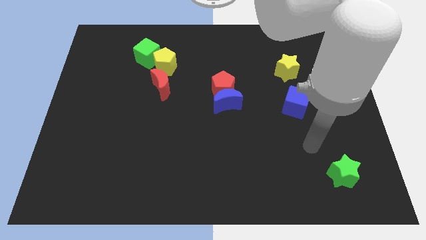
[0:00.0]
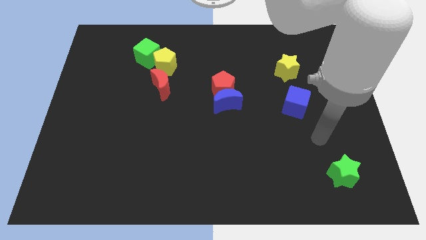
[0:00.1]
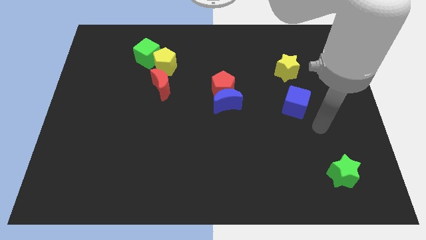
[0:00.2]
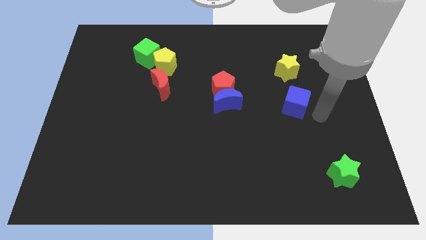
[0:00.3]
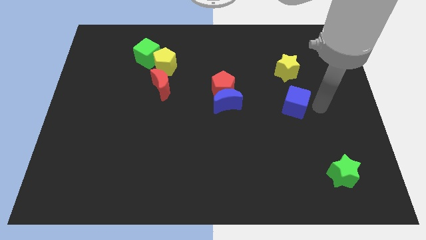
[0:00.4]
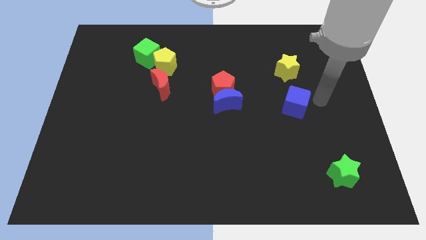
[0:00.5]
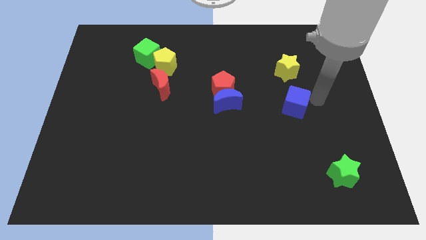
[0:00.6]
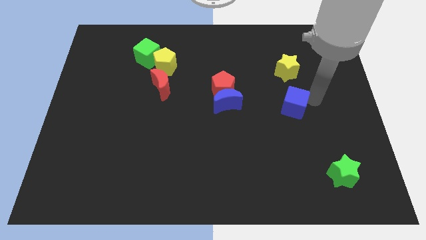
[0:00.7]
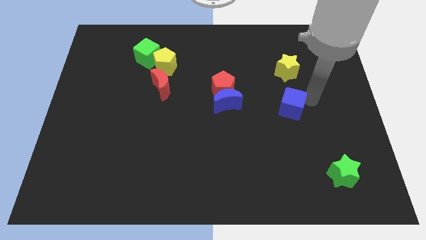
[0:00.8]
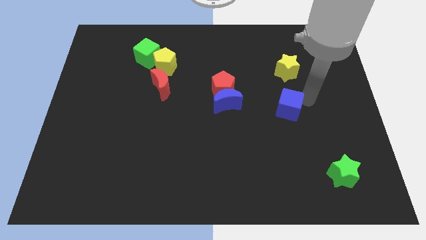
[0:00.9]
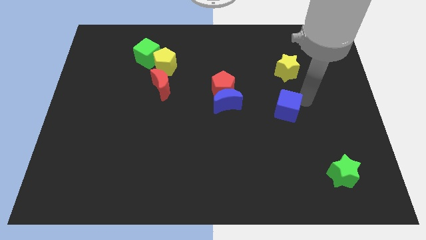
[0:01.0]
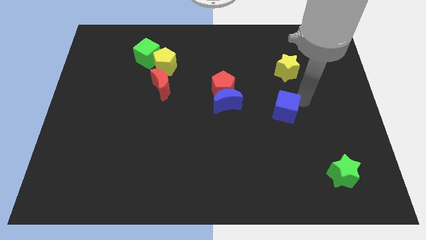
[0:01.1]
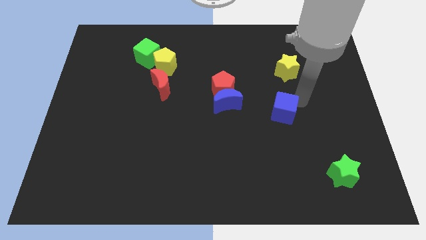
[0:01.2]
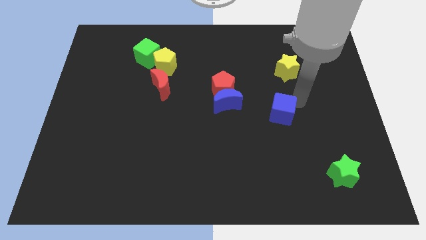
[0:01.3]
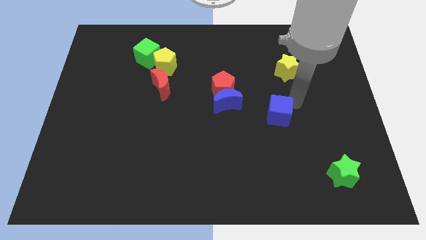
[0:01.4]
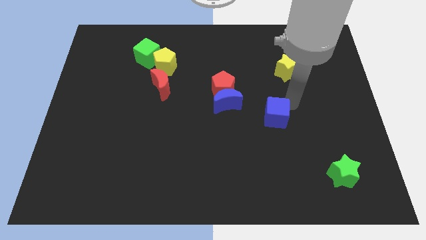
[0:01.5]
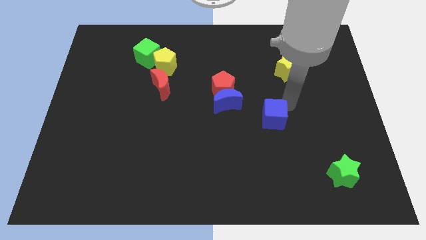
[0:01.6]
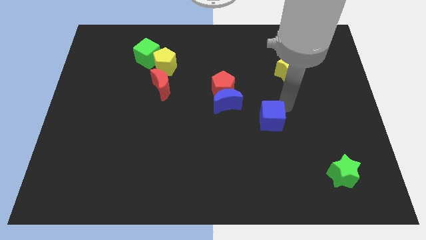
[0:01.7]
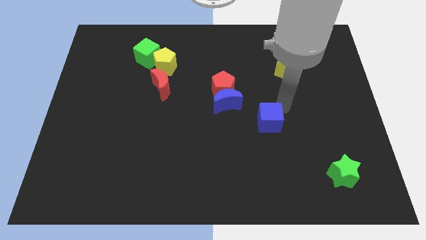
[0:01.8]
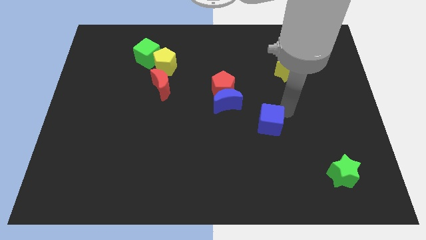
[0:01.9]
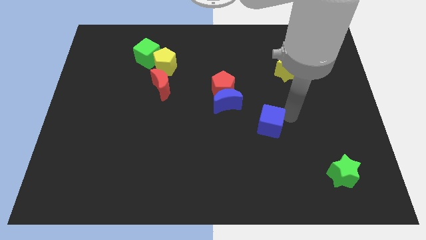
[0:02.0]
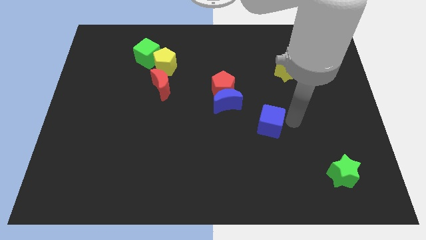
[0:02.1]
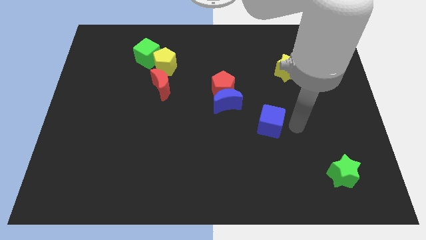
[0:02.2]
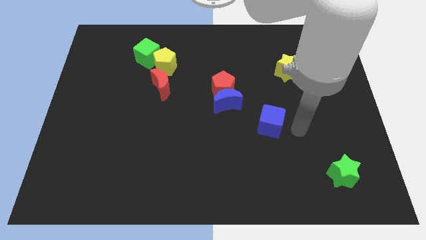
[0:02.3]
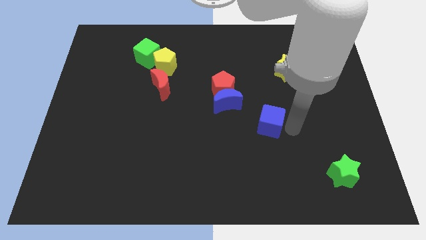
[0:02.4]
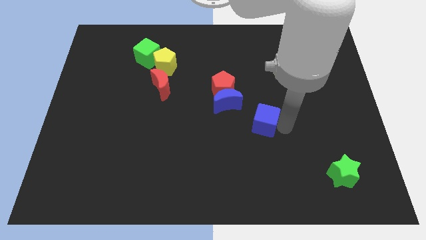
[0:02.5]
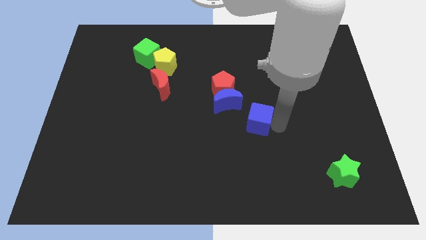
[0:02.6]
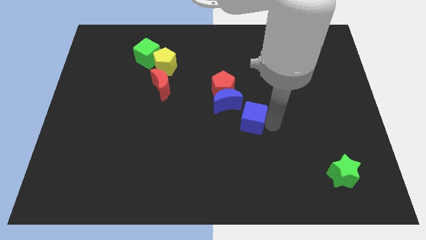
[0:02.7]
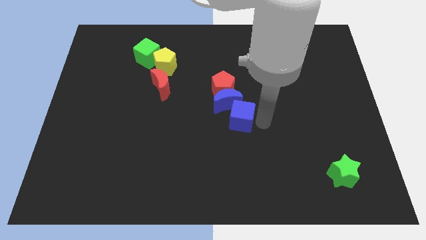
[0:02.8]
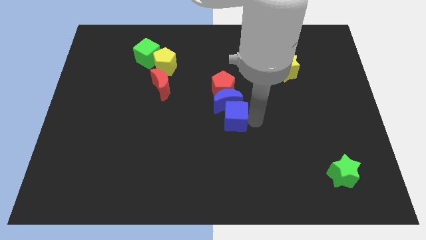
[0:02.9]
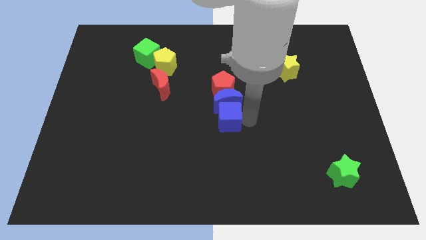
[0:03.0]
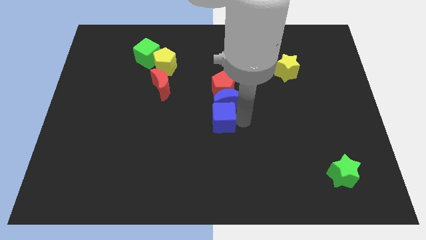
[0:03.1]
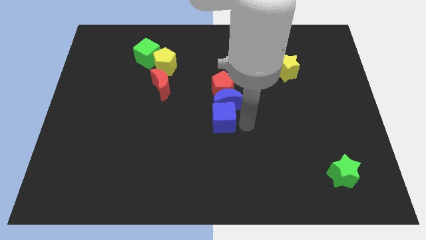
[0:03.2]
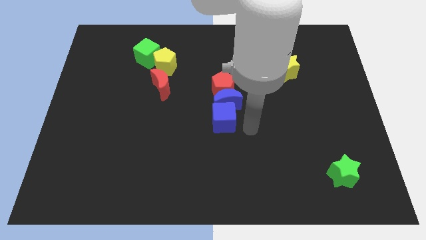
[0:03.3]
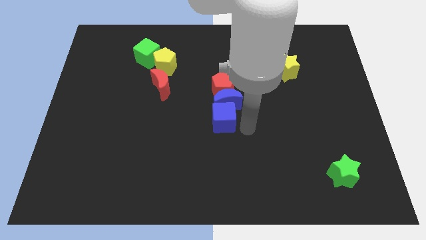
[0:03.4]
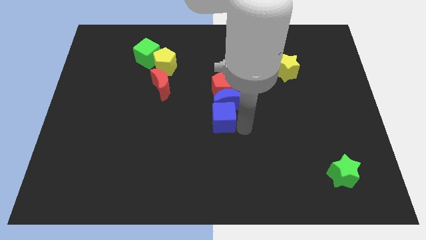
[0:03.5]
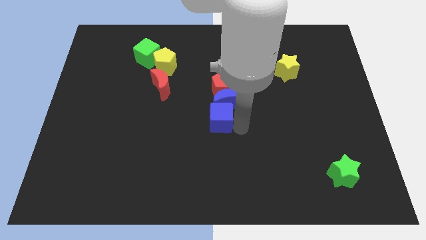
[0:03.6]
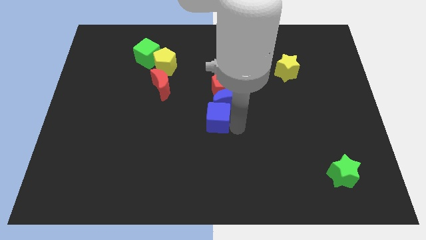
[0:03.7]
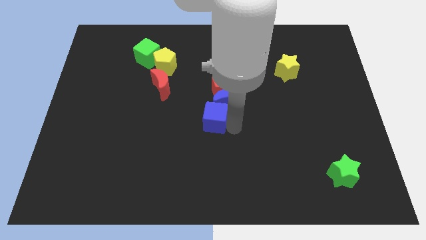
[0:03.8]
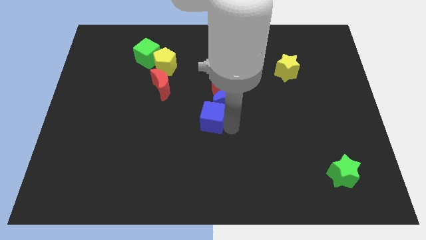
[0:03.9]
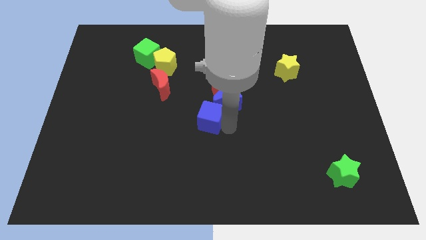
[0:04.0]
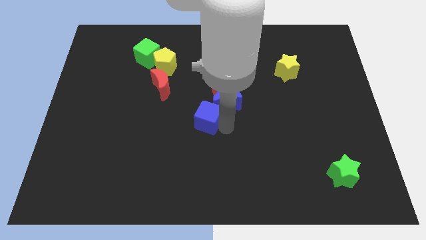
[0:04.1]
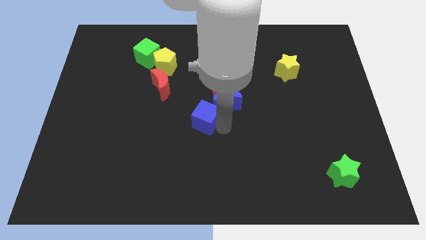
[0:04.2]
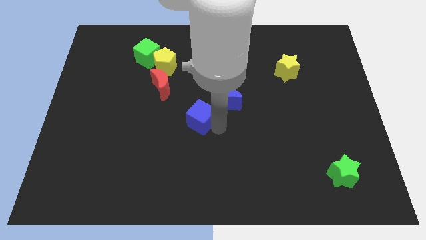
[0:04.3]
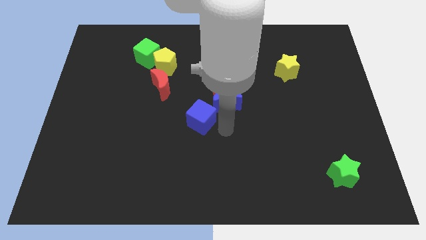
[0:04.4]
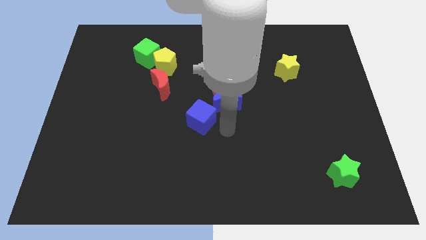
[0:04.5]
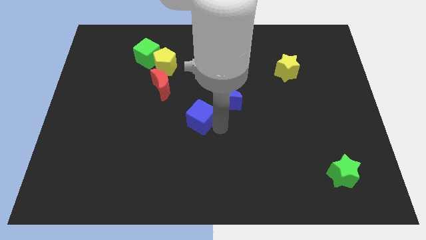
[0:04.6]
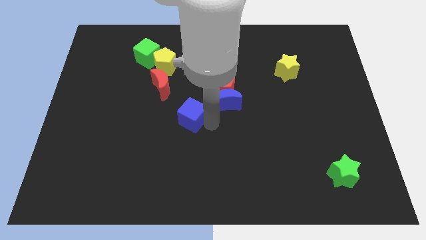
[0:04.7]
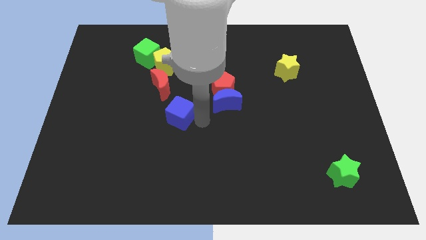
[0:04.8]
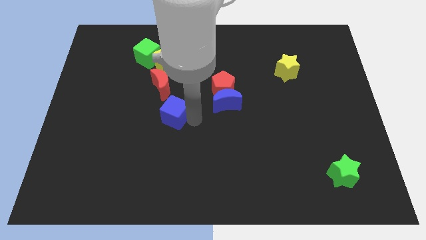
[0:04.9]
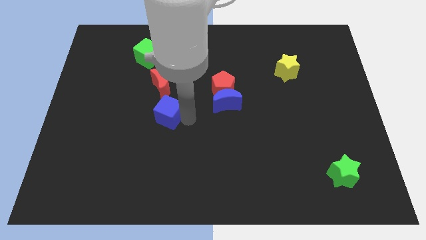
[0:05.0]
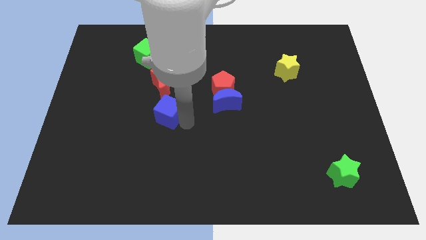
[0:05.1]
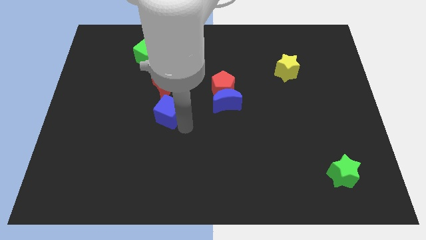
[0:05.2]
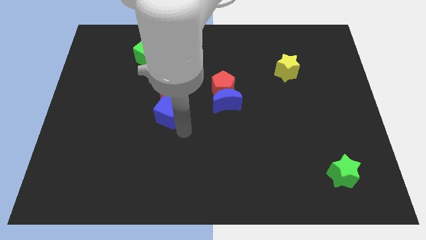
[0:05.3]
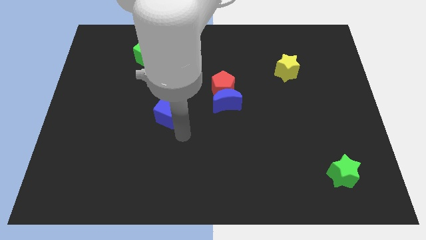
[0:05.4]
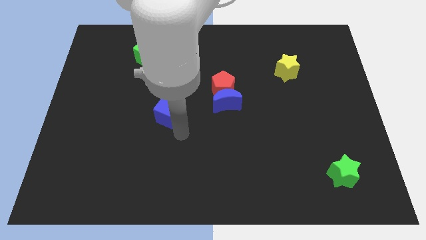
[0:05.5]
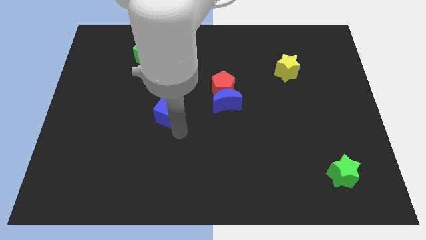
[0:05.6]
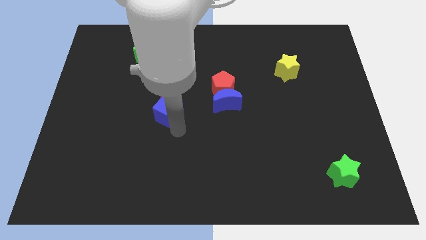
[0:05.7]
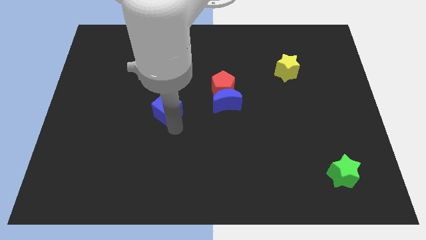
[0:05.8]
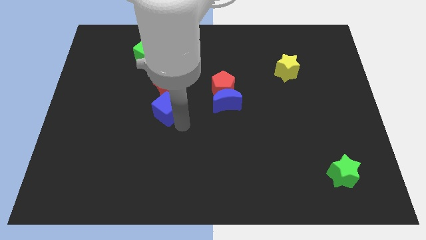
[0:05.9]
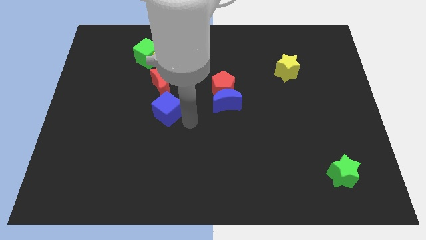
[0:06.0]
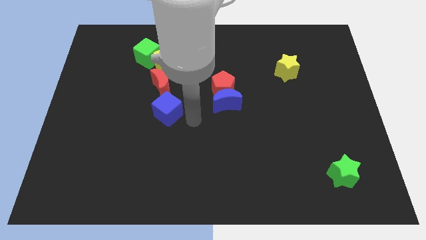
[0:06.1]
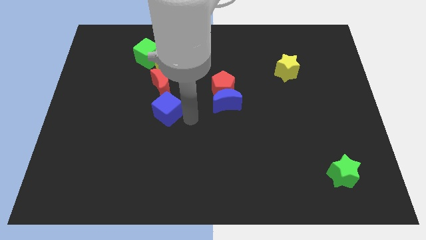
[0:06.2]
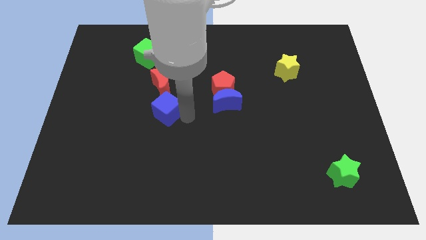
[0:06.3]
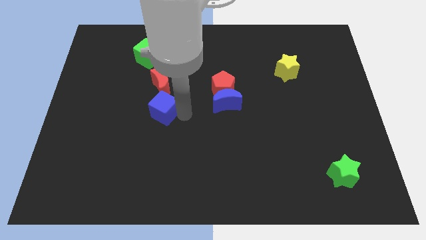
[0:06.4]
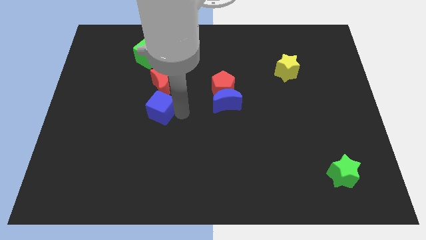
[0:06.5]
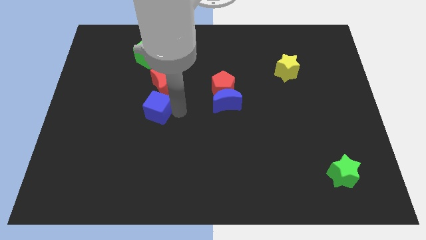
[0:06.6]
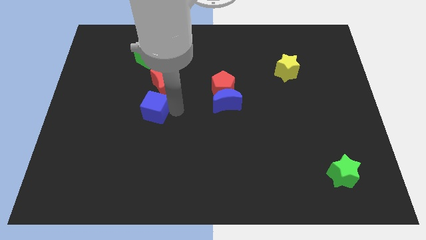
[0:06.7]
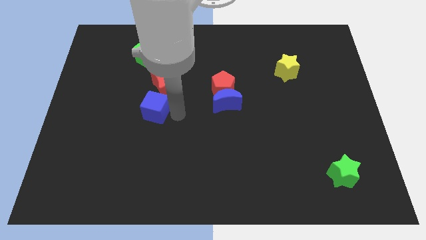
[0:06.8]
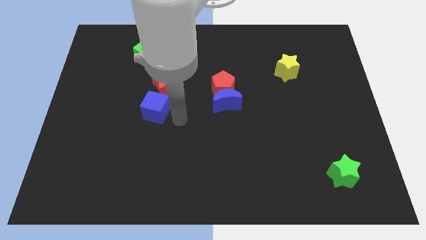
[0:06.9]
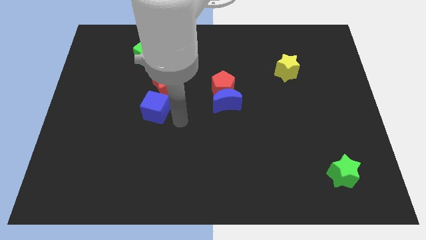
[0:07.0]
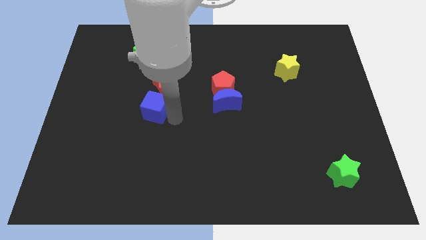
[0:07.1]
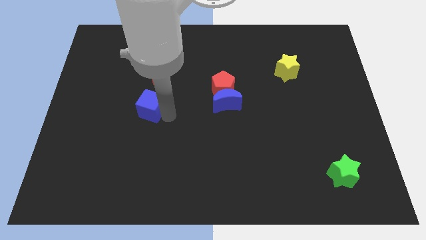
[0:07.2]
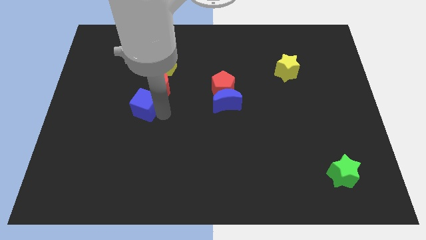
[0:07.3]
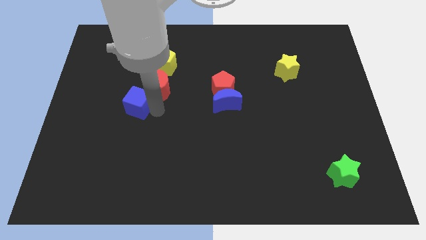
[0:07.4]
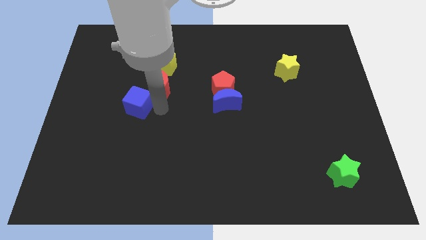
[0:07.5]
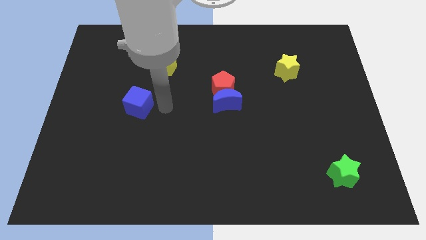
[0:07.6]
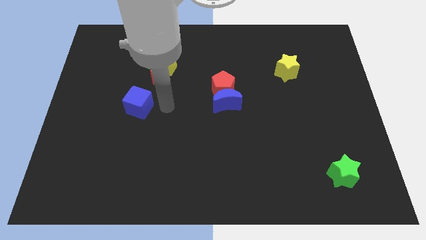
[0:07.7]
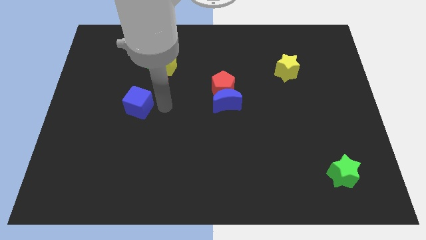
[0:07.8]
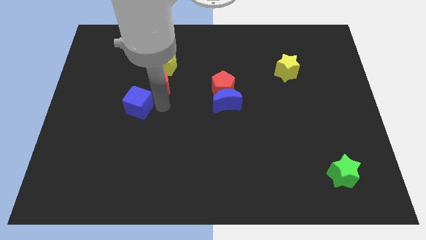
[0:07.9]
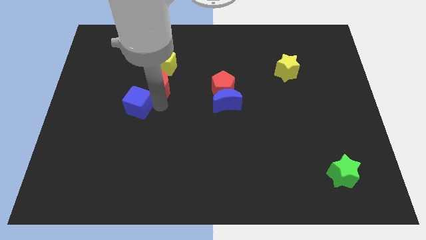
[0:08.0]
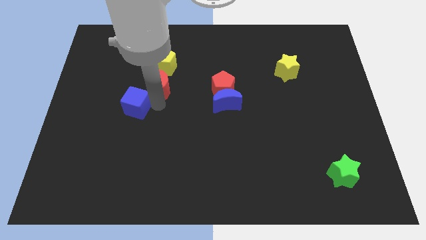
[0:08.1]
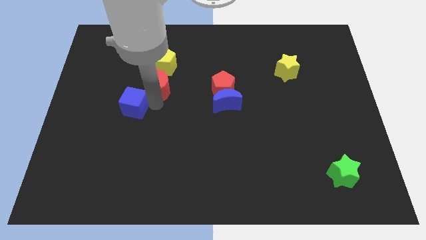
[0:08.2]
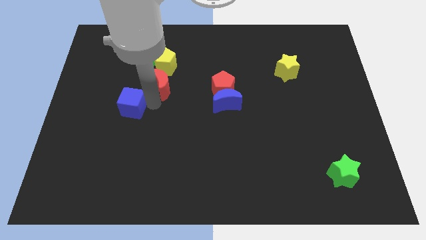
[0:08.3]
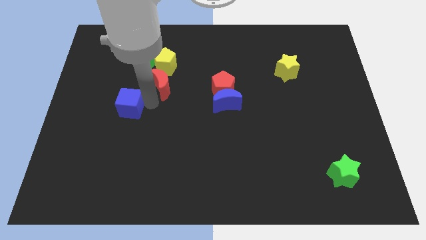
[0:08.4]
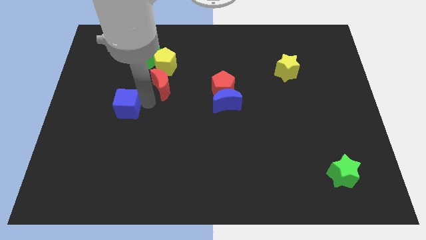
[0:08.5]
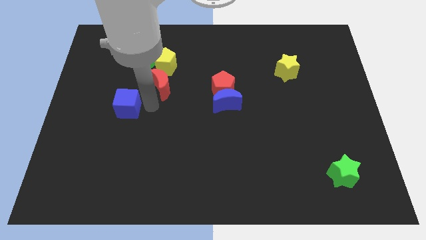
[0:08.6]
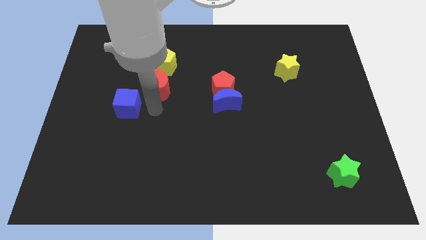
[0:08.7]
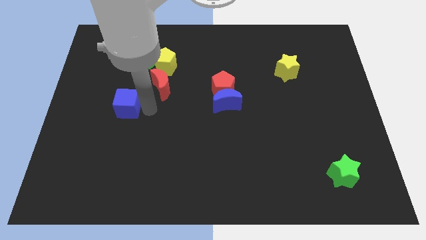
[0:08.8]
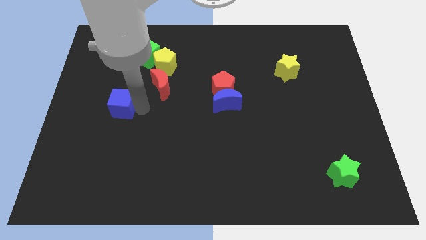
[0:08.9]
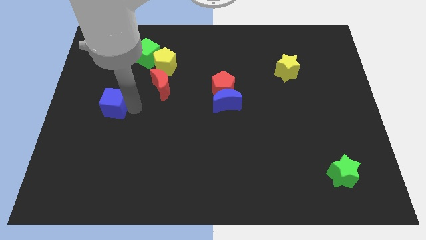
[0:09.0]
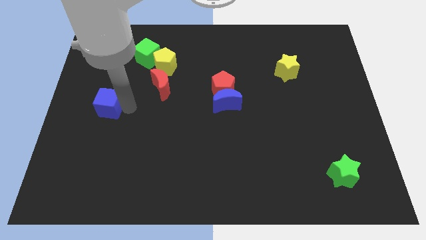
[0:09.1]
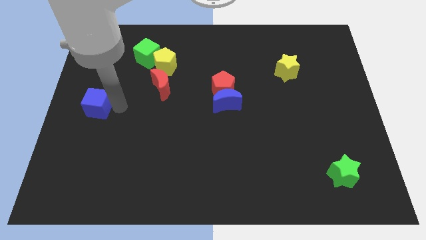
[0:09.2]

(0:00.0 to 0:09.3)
push the blue cube to the left side
